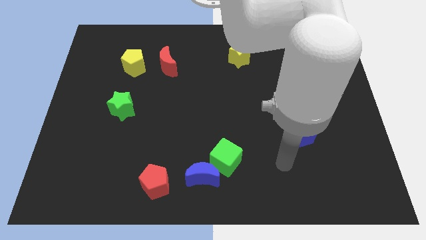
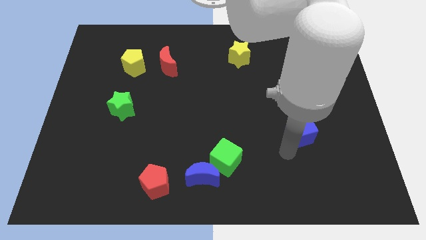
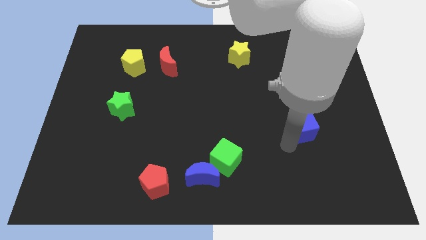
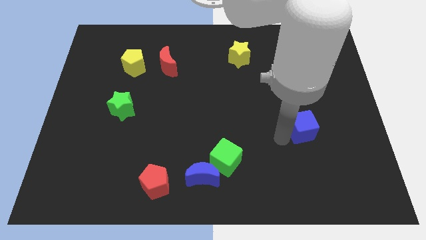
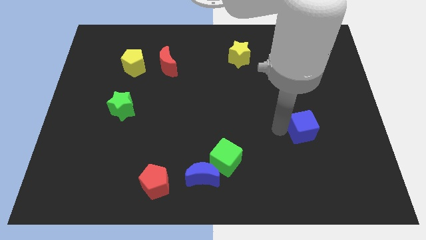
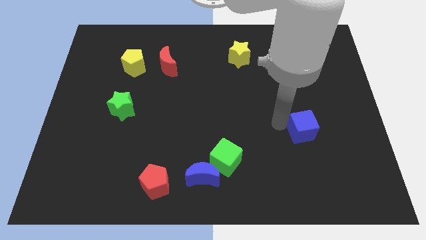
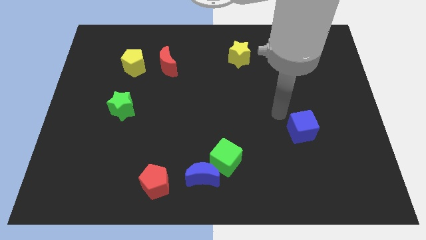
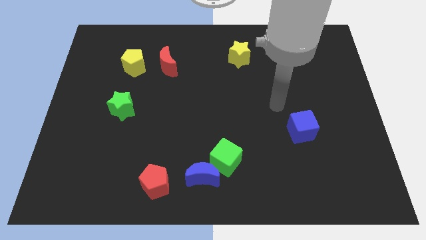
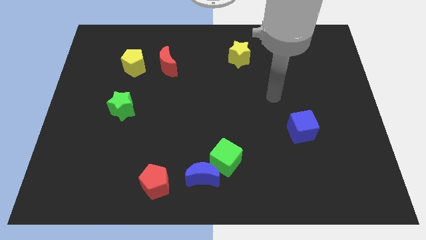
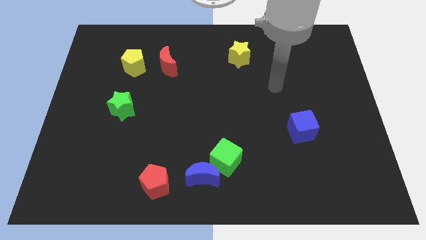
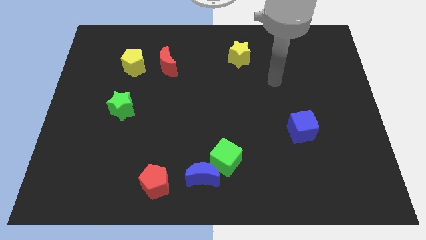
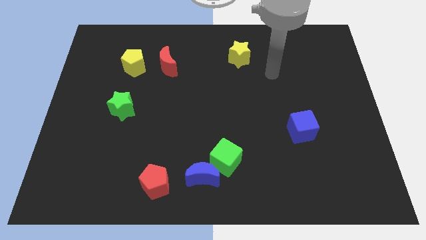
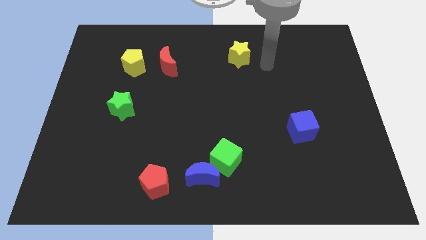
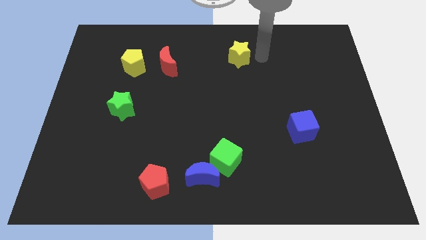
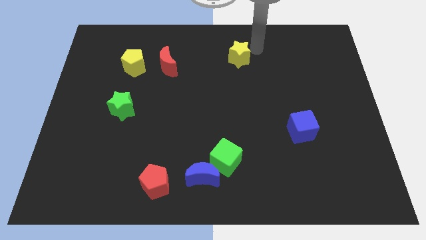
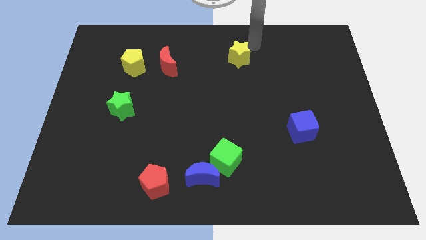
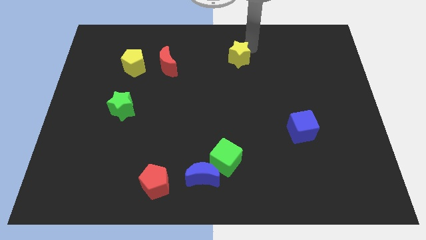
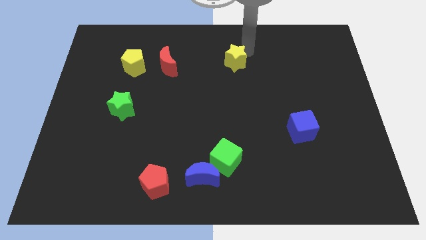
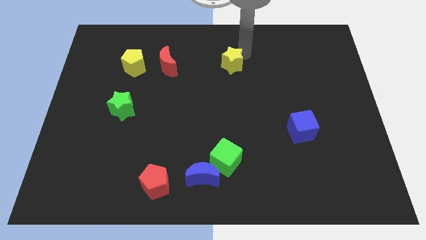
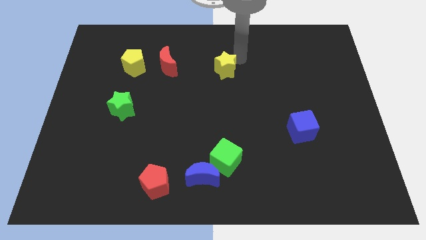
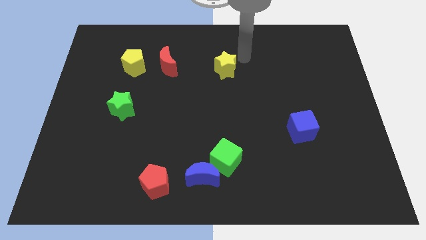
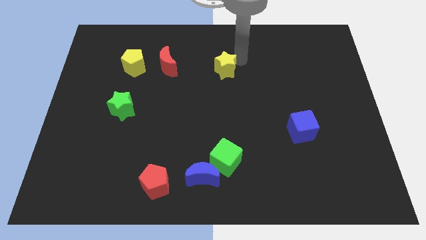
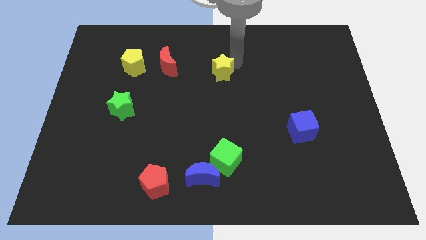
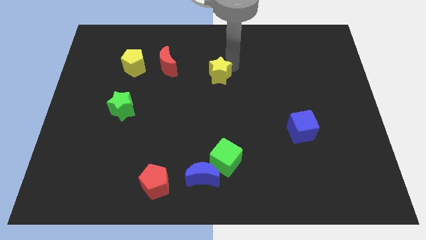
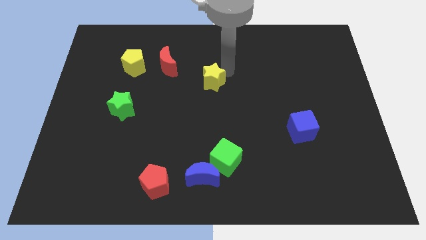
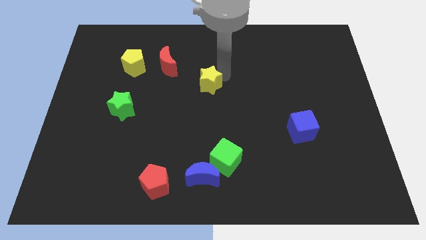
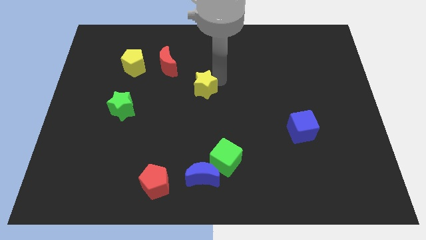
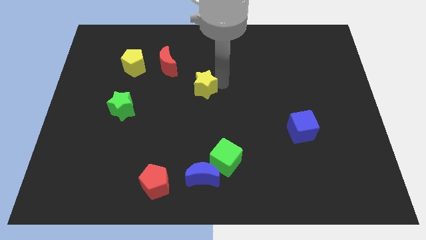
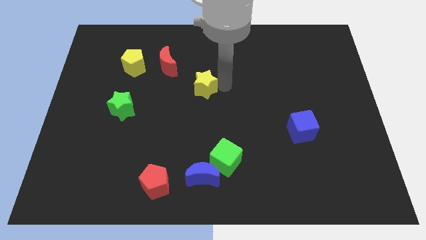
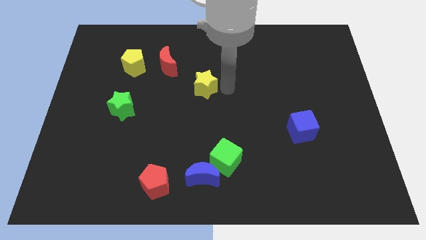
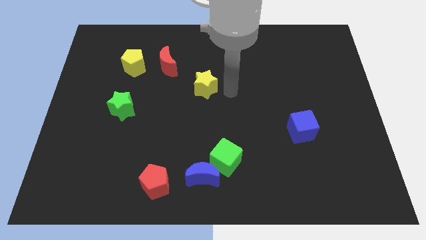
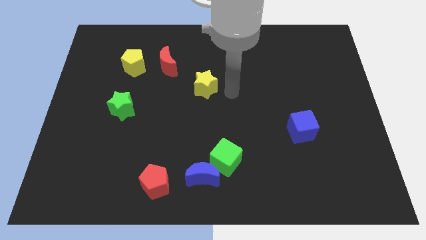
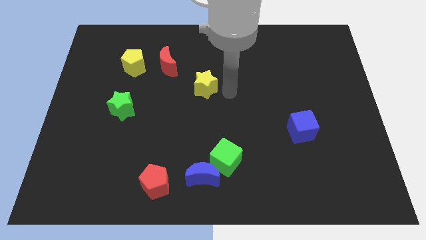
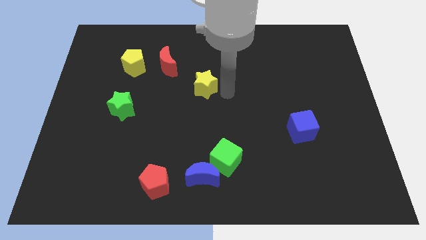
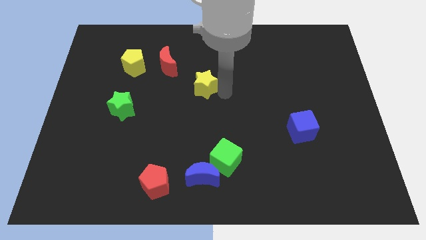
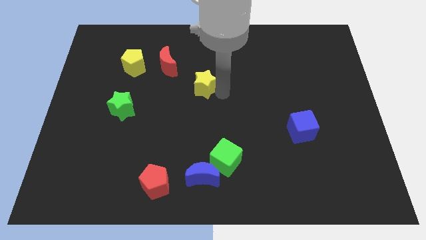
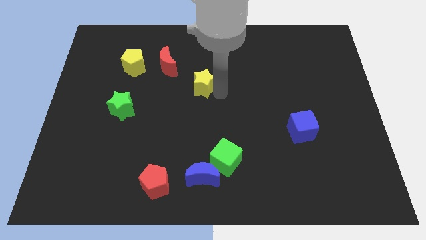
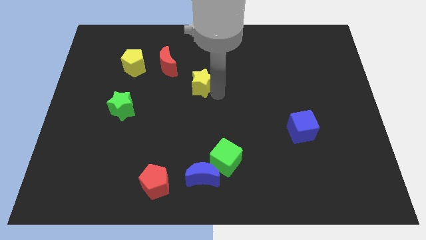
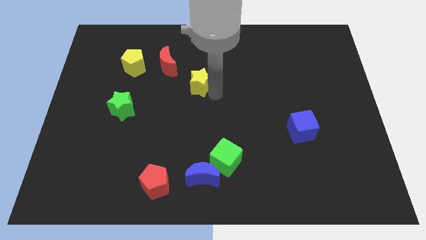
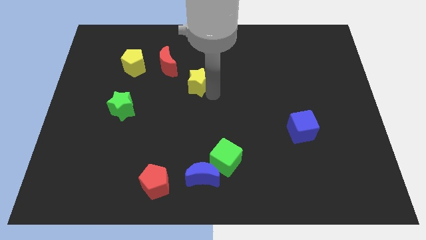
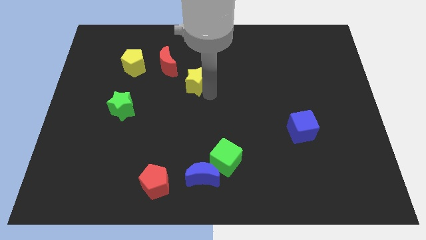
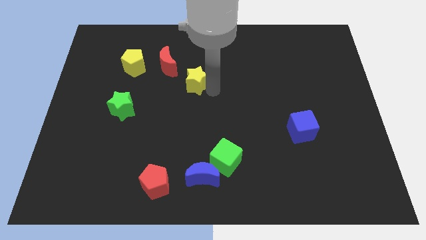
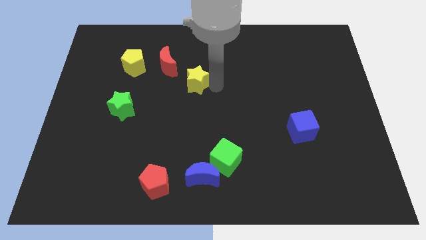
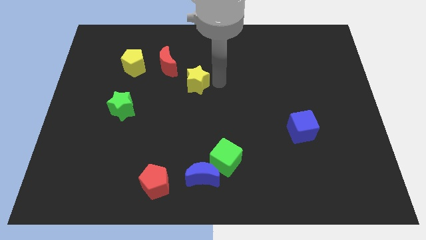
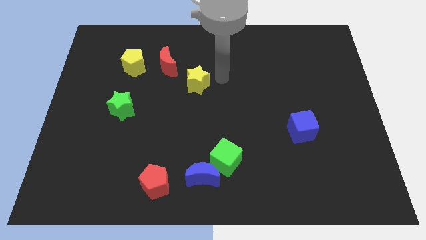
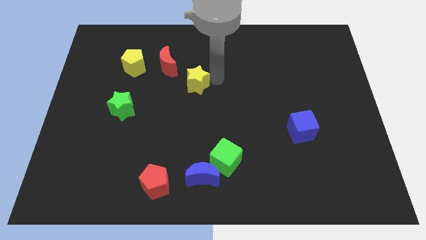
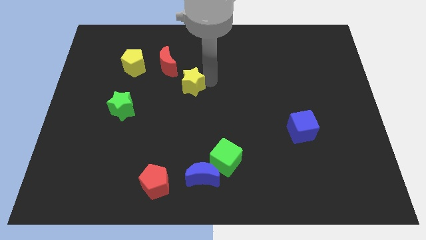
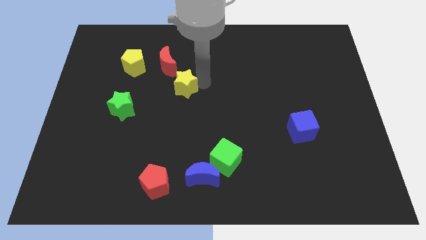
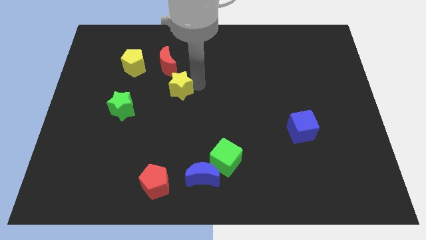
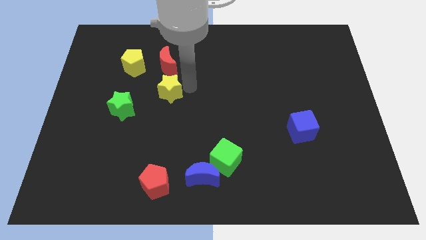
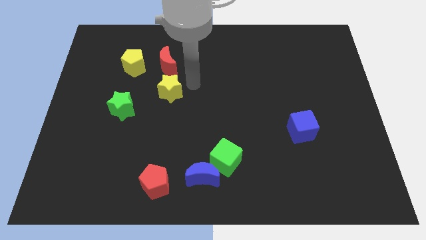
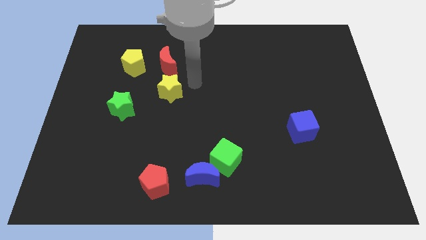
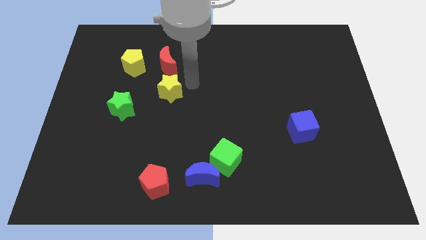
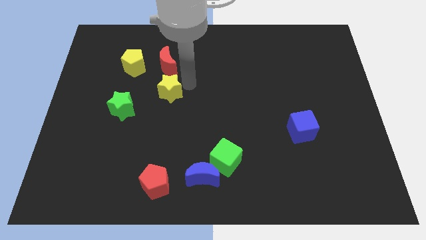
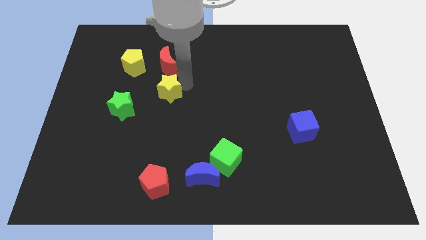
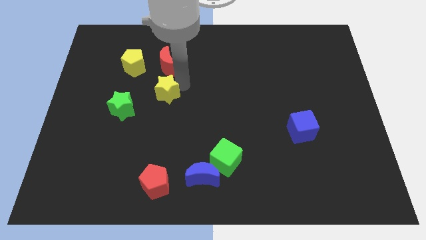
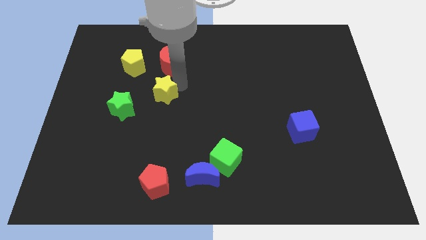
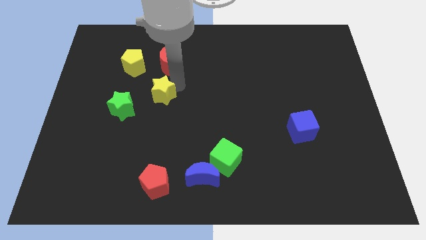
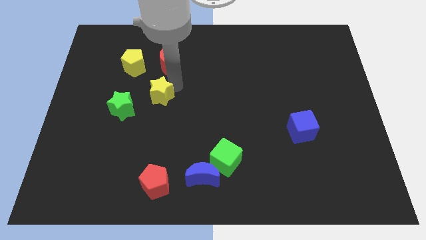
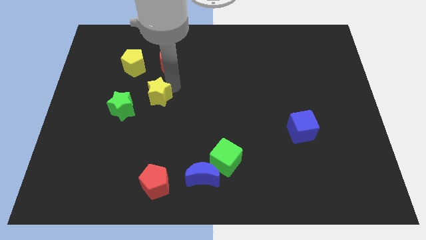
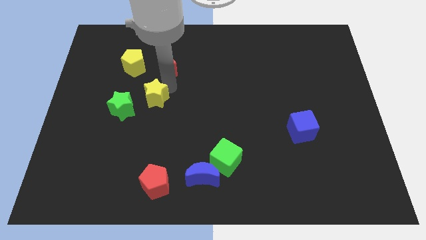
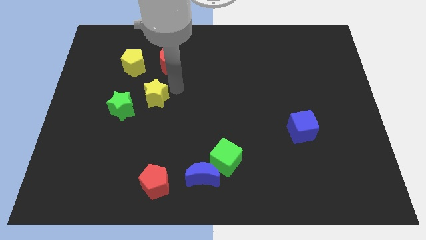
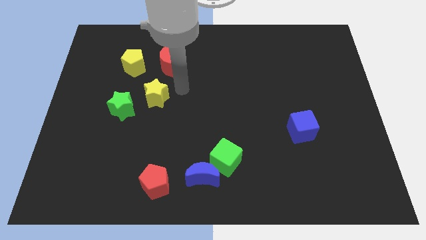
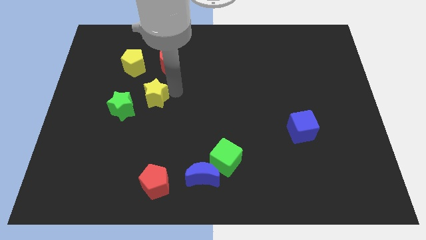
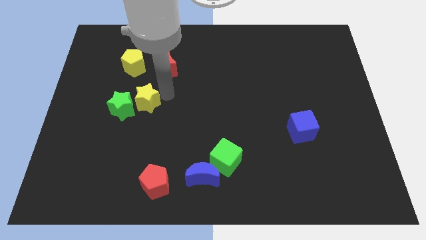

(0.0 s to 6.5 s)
slide the yellow star to the green star
